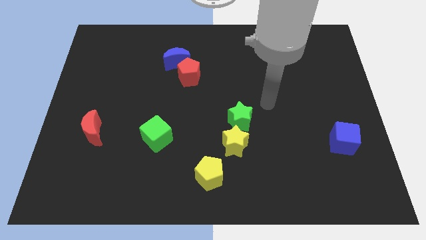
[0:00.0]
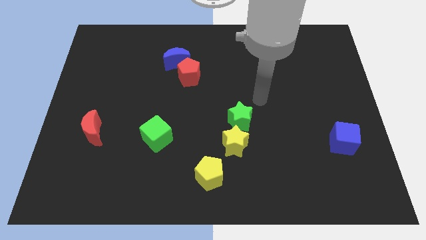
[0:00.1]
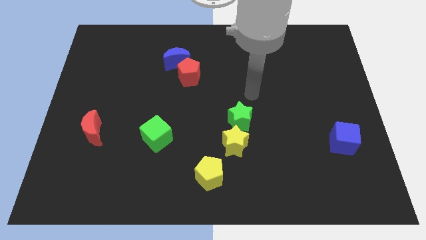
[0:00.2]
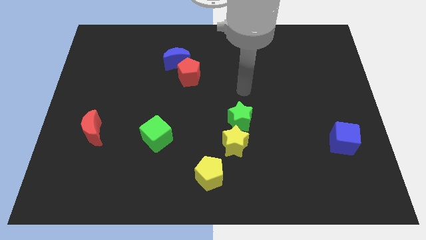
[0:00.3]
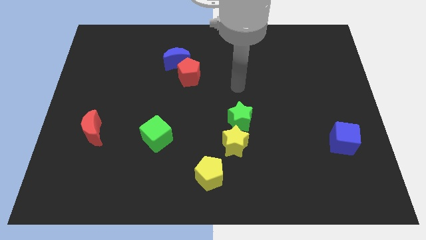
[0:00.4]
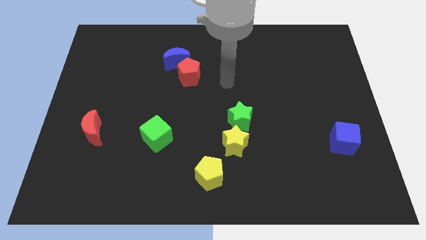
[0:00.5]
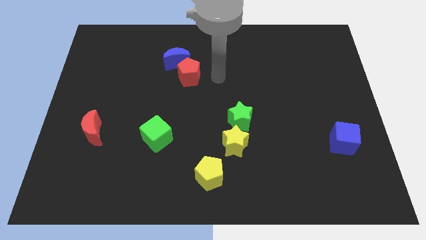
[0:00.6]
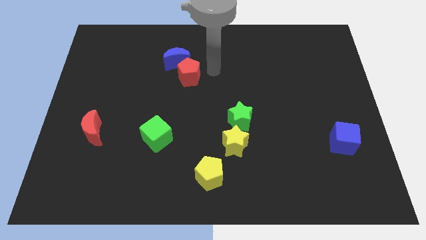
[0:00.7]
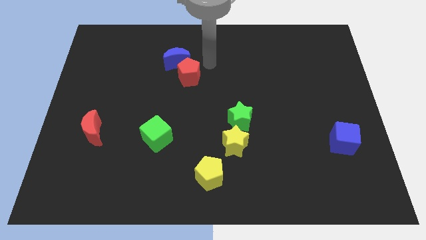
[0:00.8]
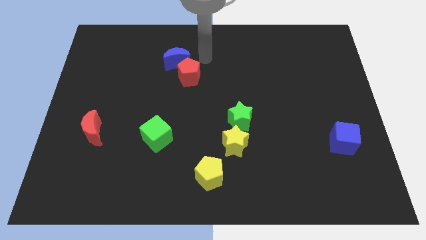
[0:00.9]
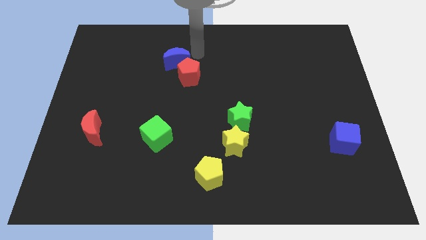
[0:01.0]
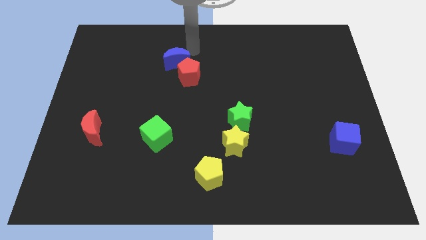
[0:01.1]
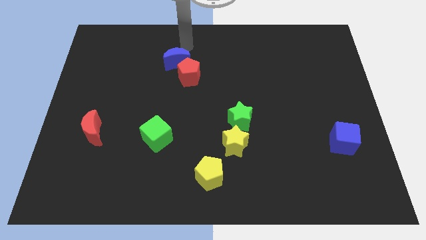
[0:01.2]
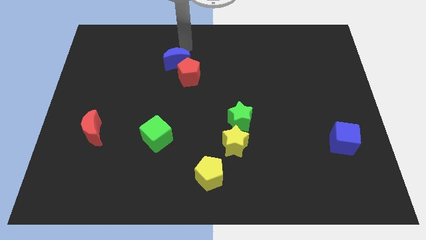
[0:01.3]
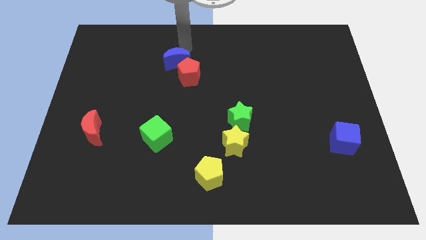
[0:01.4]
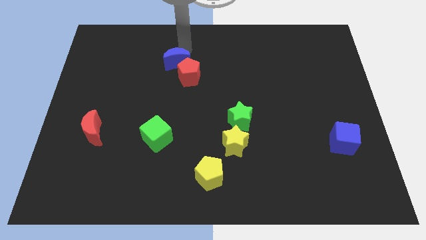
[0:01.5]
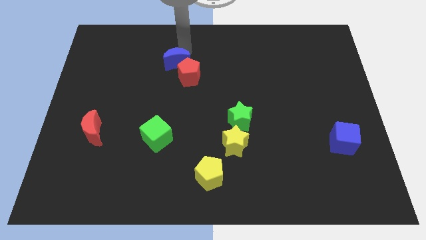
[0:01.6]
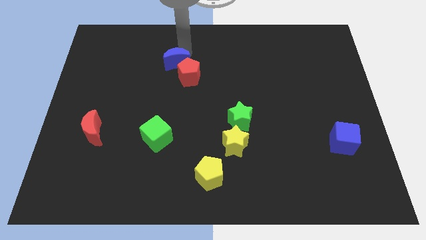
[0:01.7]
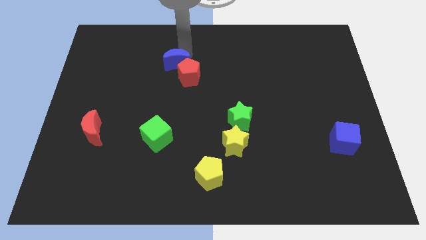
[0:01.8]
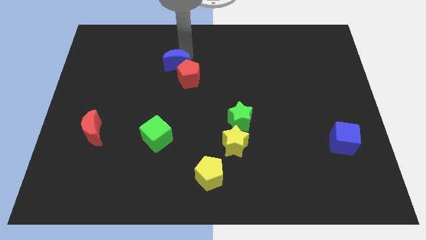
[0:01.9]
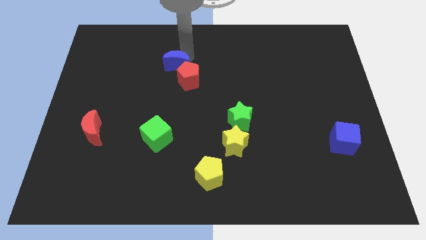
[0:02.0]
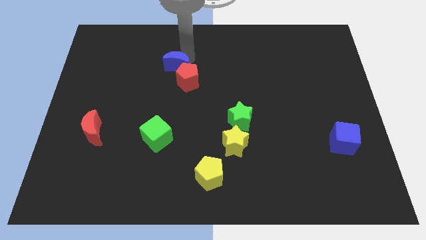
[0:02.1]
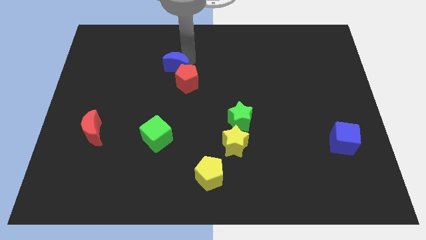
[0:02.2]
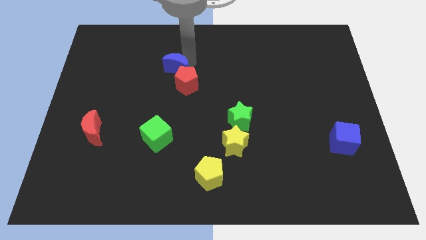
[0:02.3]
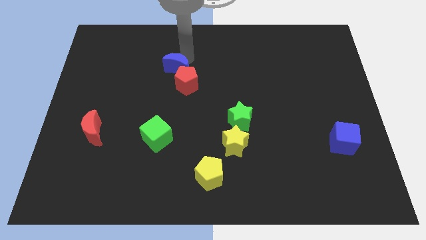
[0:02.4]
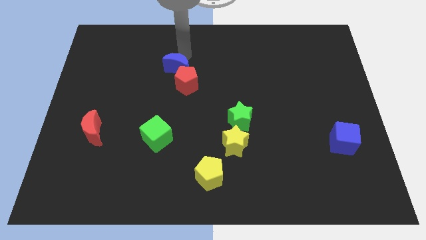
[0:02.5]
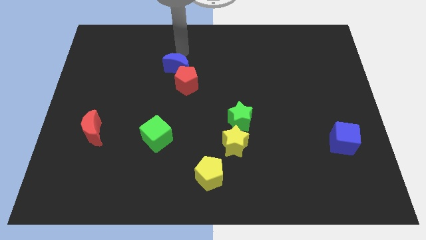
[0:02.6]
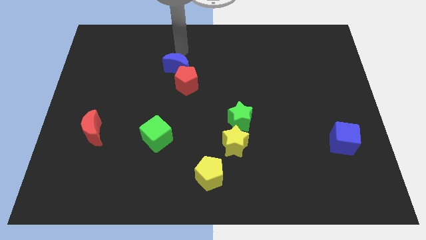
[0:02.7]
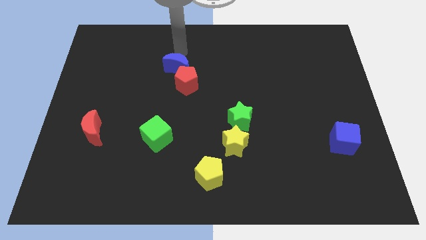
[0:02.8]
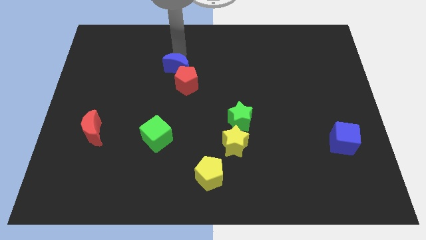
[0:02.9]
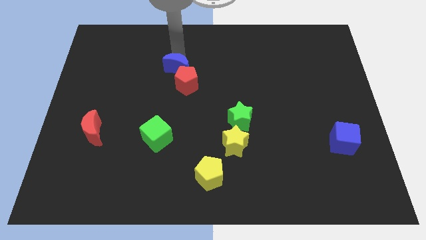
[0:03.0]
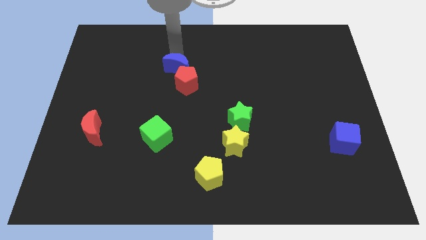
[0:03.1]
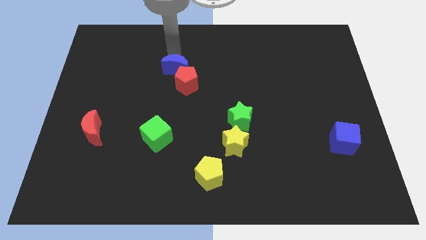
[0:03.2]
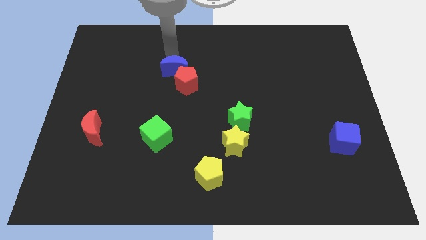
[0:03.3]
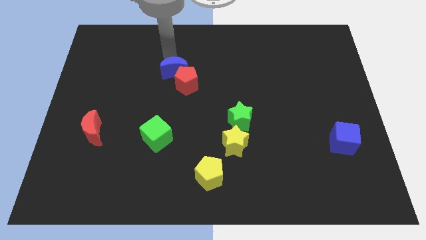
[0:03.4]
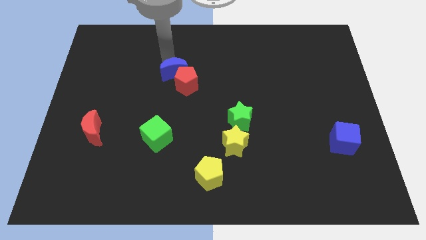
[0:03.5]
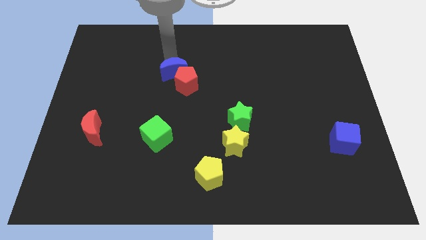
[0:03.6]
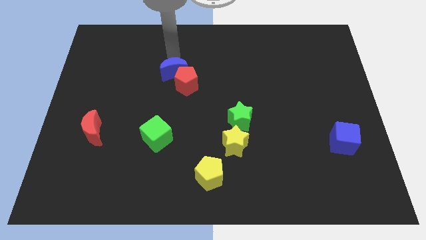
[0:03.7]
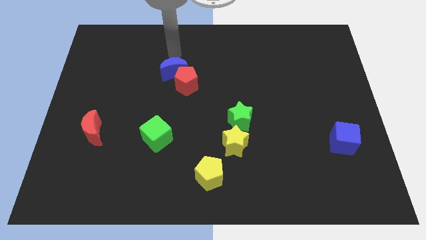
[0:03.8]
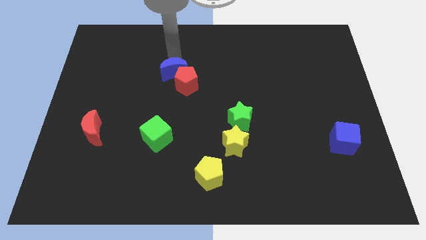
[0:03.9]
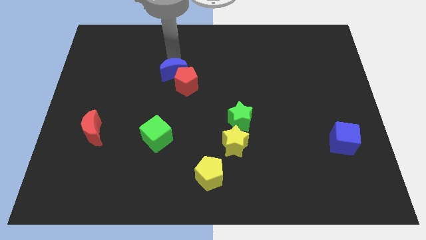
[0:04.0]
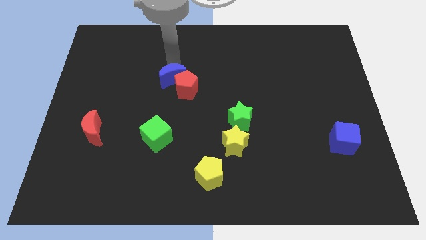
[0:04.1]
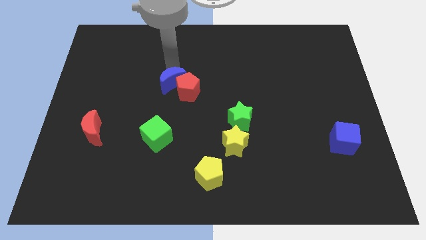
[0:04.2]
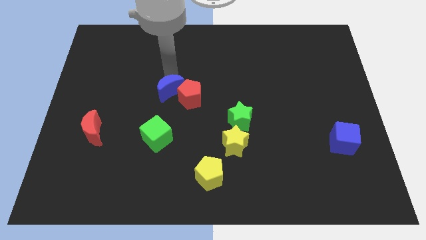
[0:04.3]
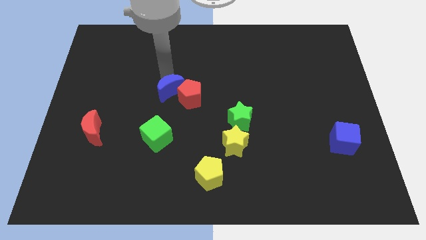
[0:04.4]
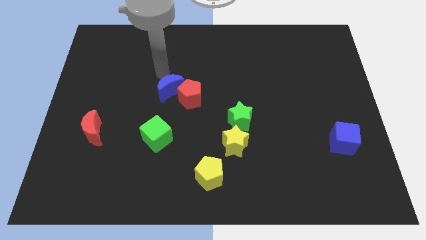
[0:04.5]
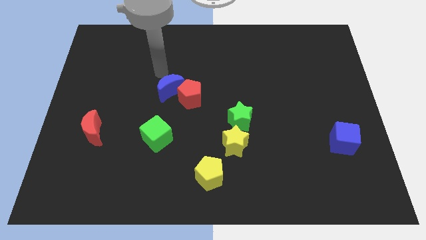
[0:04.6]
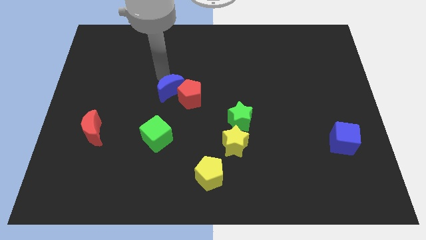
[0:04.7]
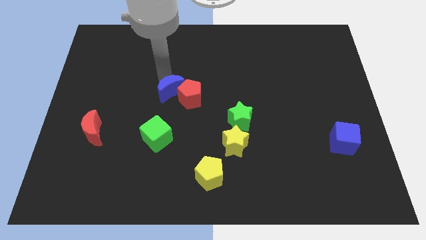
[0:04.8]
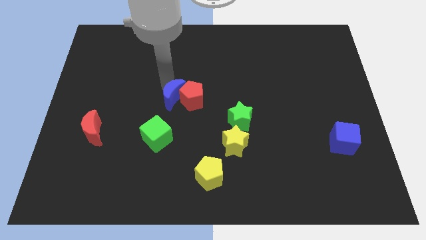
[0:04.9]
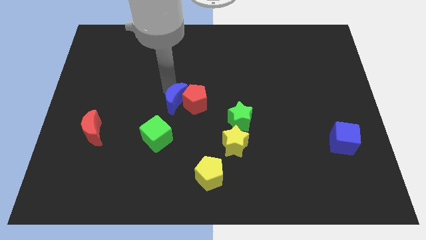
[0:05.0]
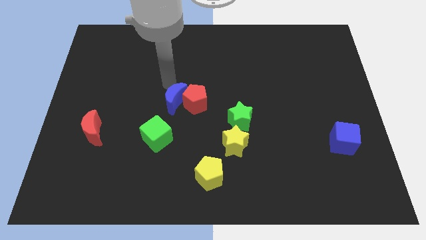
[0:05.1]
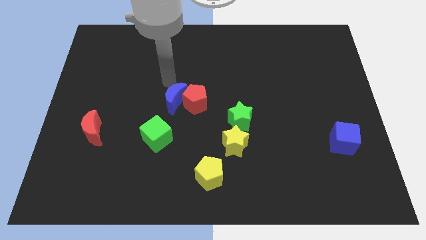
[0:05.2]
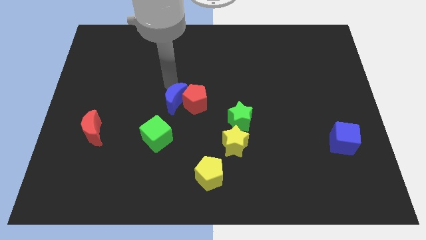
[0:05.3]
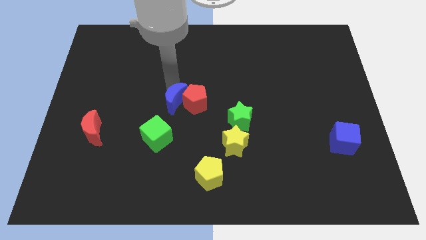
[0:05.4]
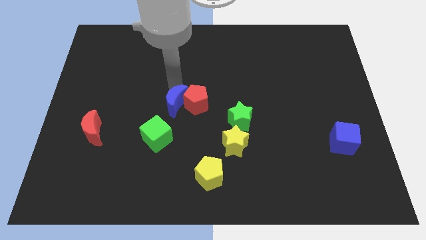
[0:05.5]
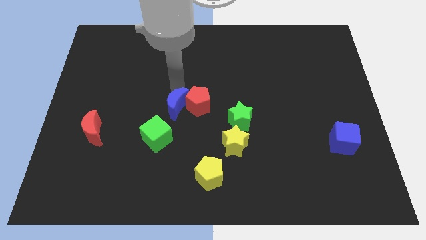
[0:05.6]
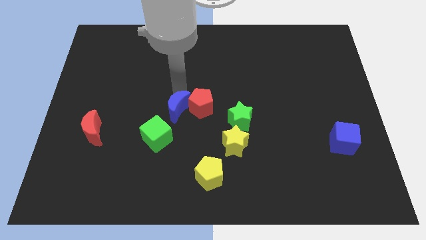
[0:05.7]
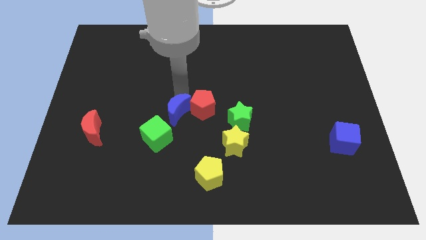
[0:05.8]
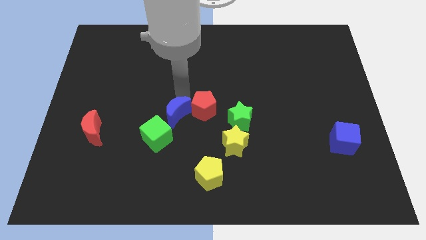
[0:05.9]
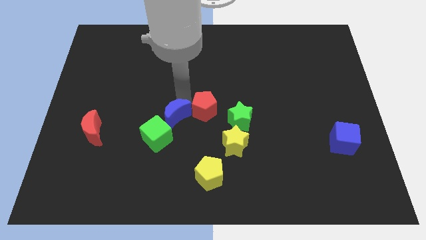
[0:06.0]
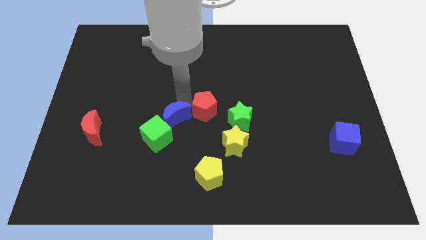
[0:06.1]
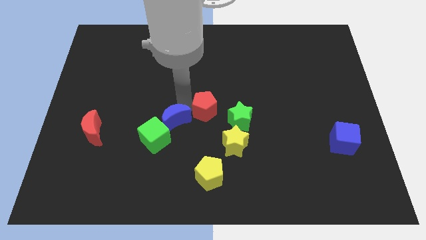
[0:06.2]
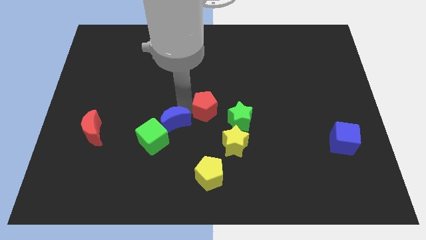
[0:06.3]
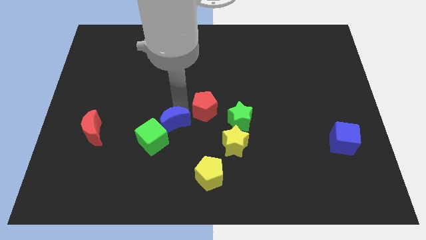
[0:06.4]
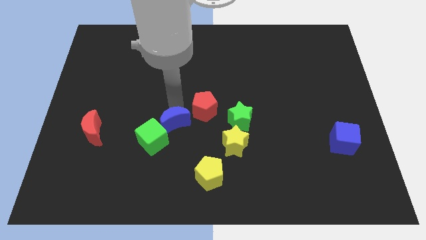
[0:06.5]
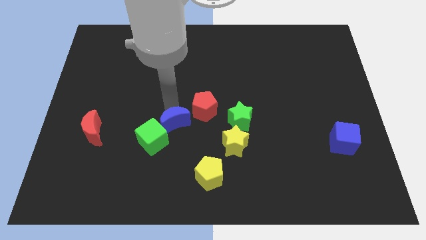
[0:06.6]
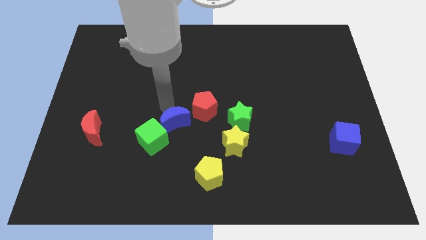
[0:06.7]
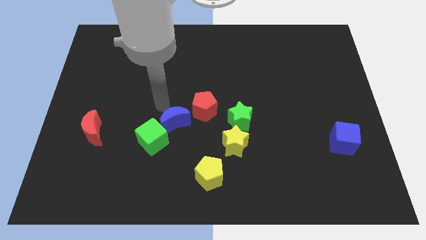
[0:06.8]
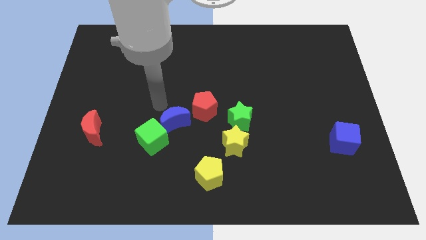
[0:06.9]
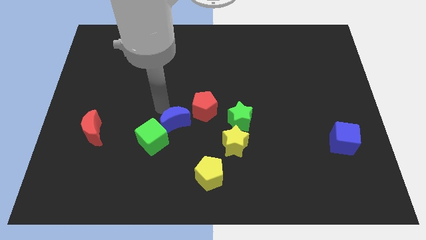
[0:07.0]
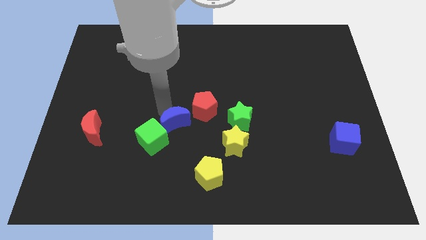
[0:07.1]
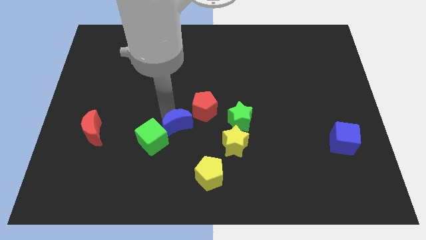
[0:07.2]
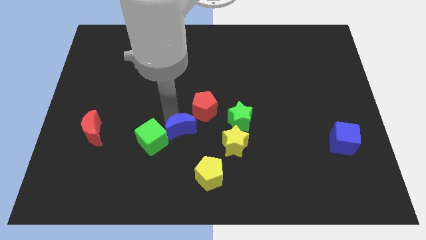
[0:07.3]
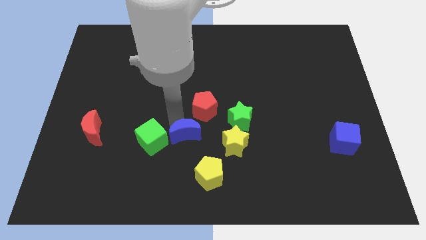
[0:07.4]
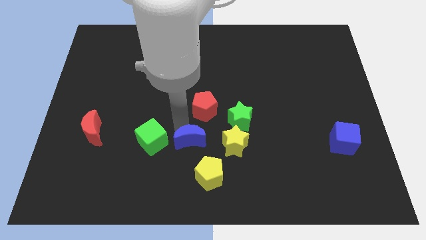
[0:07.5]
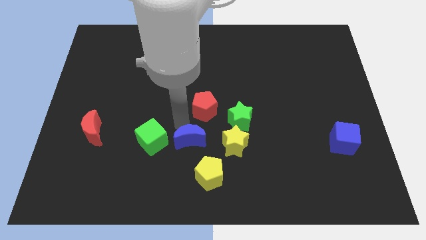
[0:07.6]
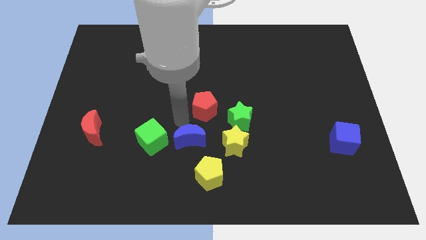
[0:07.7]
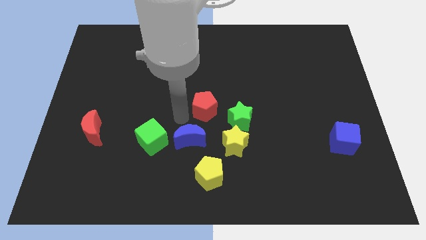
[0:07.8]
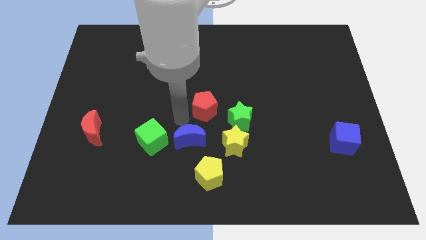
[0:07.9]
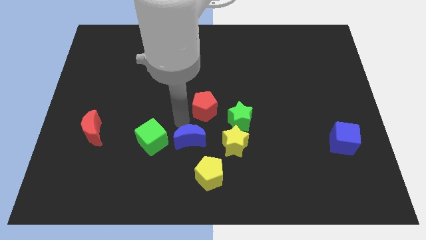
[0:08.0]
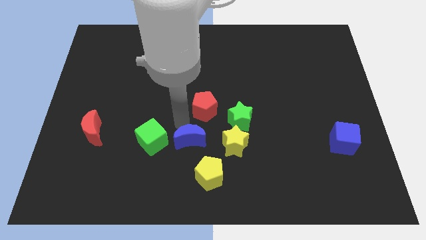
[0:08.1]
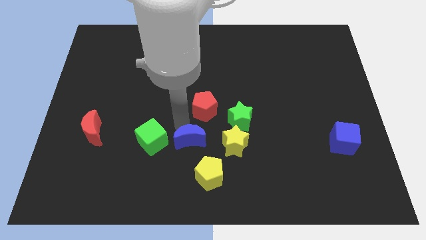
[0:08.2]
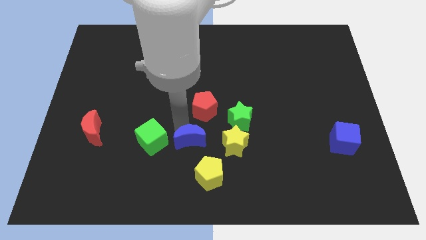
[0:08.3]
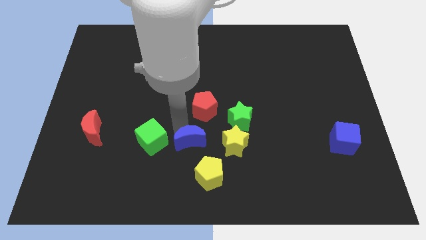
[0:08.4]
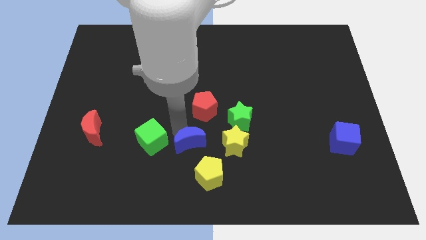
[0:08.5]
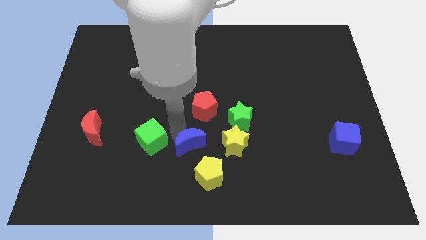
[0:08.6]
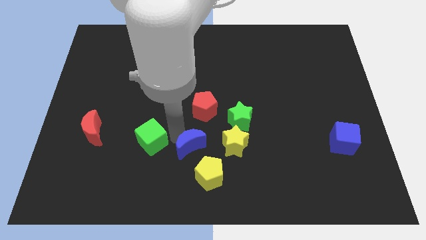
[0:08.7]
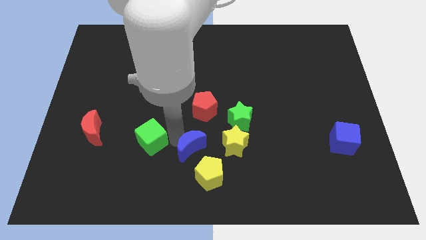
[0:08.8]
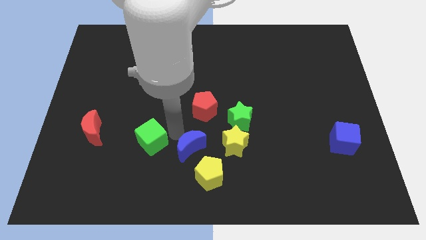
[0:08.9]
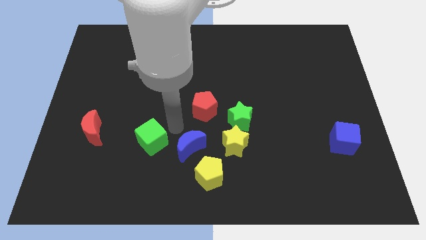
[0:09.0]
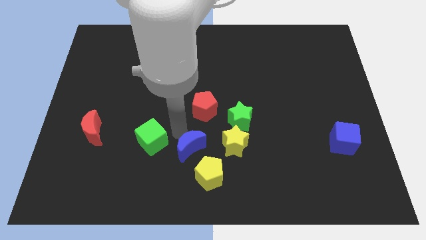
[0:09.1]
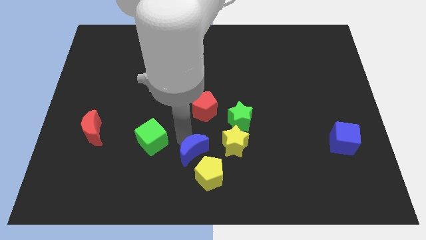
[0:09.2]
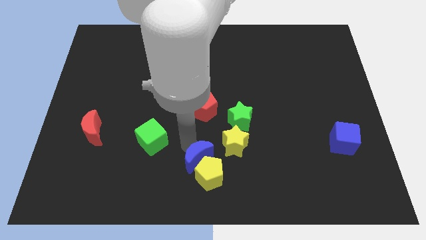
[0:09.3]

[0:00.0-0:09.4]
slide the blue moon to the yellow pentagon
